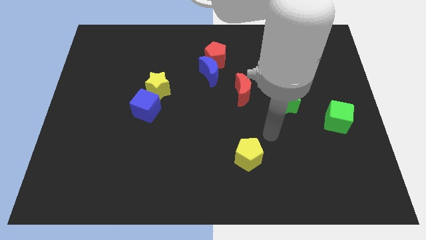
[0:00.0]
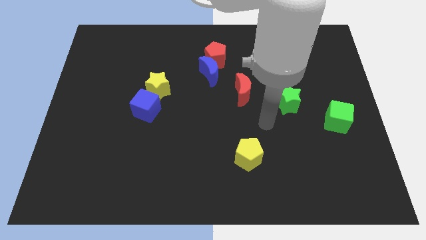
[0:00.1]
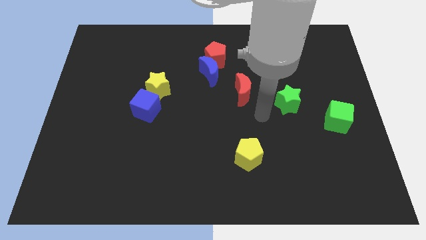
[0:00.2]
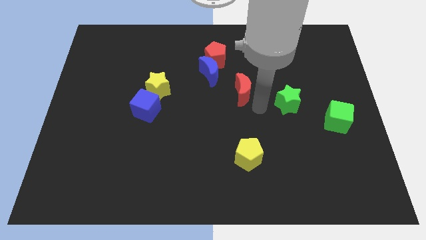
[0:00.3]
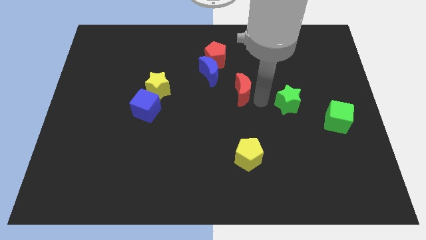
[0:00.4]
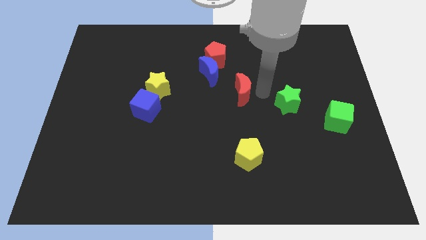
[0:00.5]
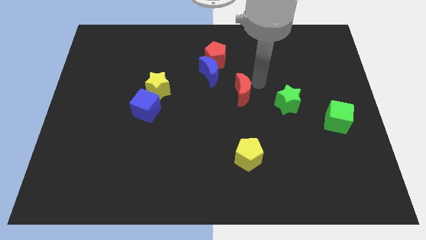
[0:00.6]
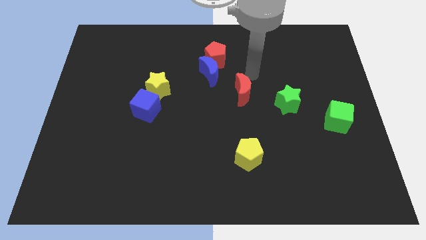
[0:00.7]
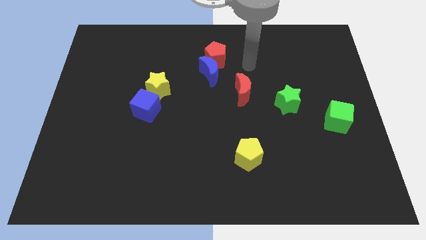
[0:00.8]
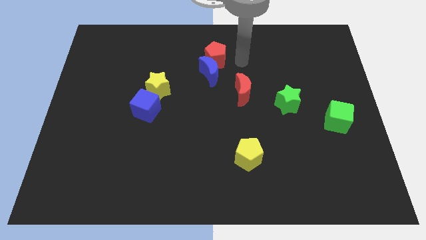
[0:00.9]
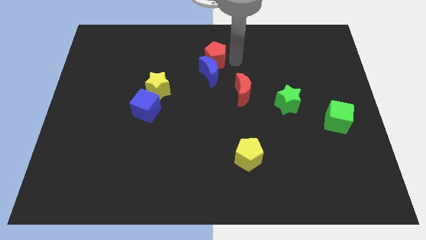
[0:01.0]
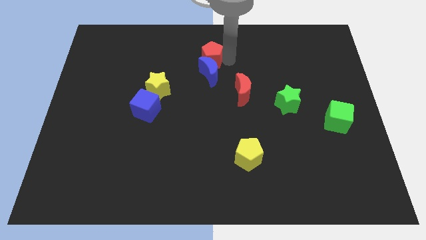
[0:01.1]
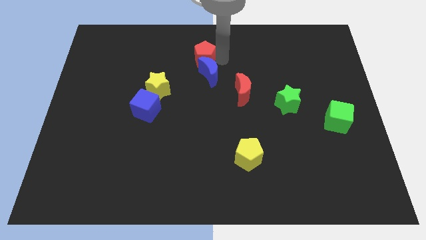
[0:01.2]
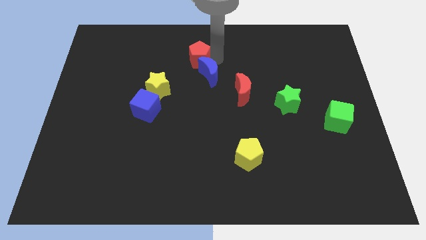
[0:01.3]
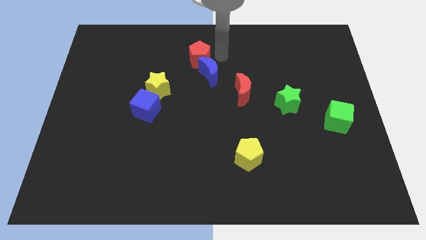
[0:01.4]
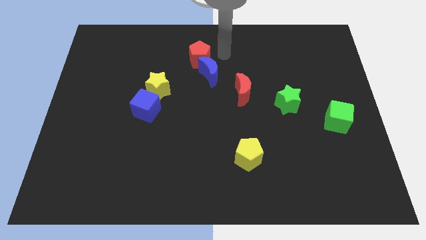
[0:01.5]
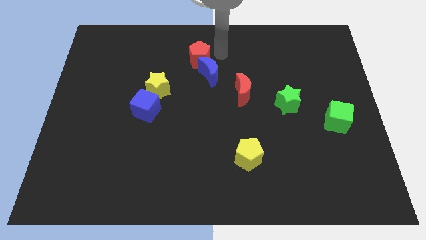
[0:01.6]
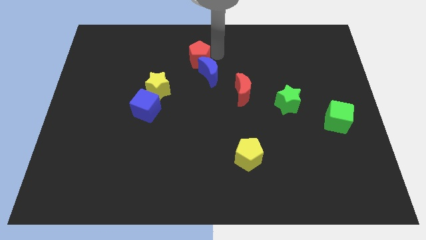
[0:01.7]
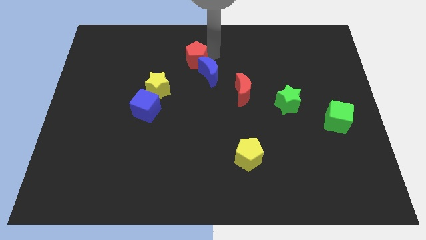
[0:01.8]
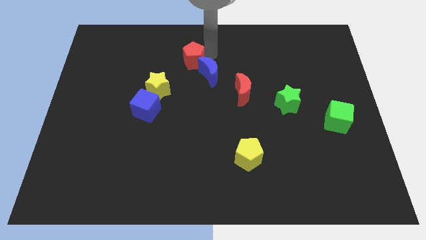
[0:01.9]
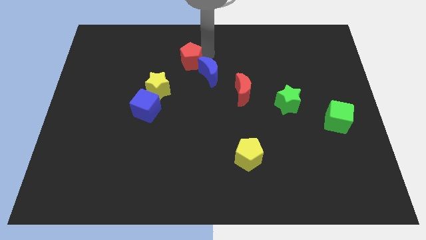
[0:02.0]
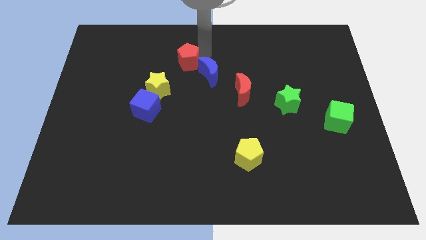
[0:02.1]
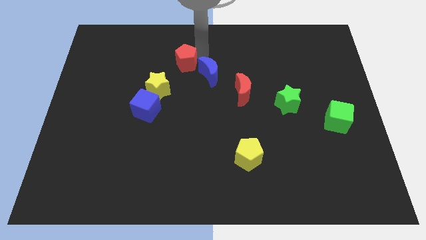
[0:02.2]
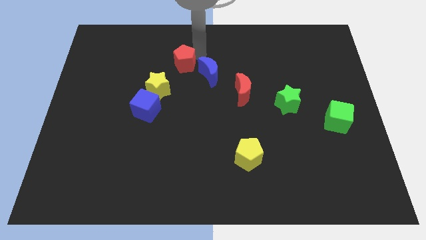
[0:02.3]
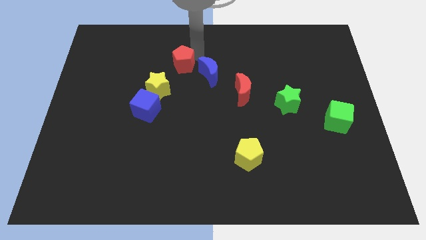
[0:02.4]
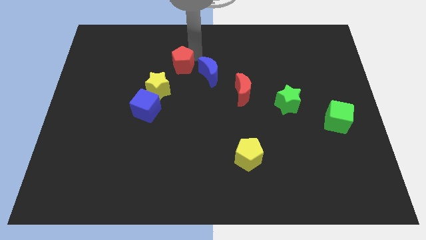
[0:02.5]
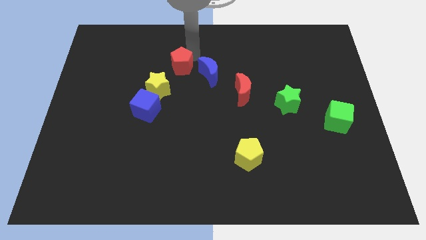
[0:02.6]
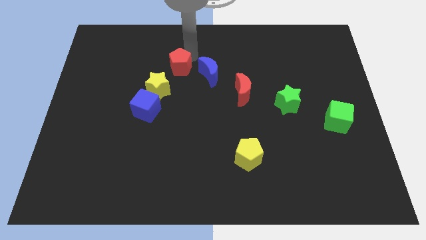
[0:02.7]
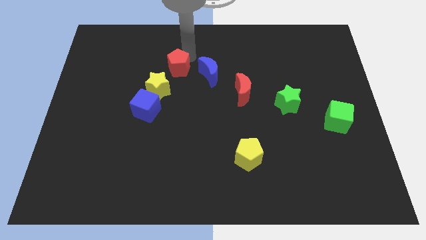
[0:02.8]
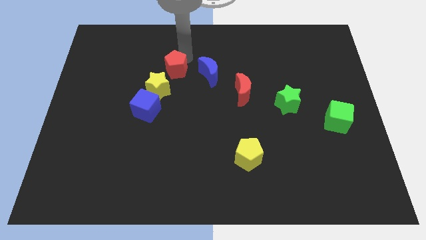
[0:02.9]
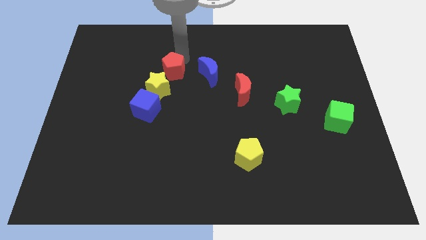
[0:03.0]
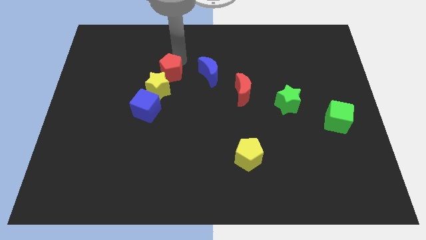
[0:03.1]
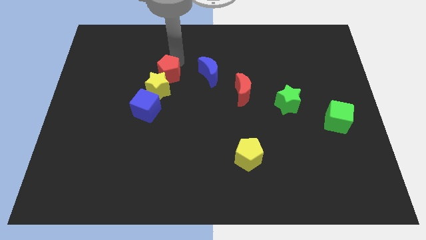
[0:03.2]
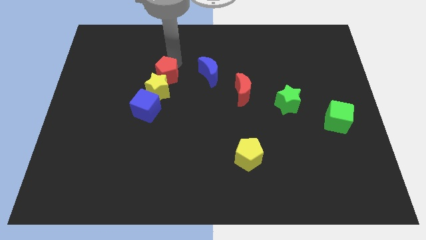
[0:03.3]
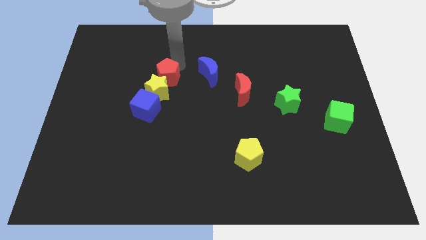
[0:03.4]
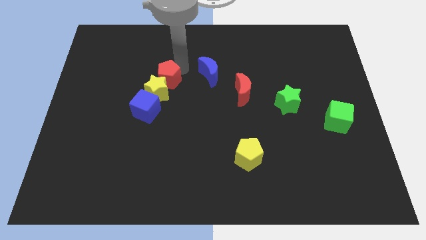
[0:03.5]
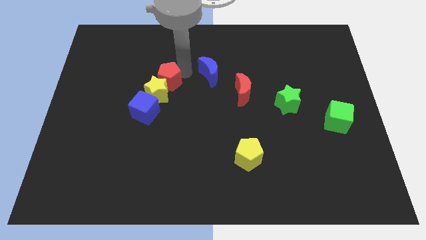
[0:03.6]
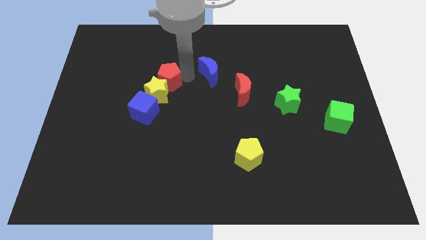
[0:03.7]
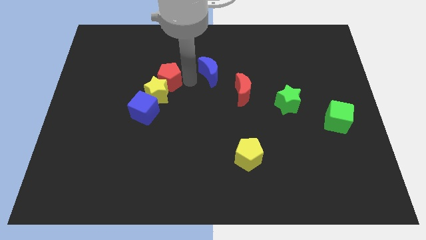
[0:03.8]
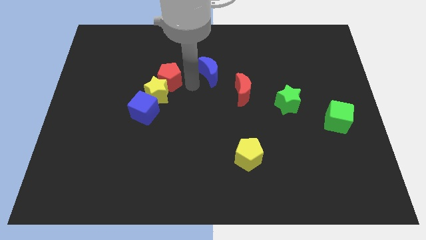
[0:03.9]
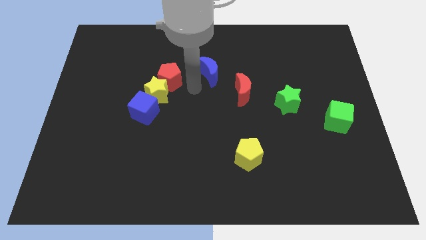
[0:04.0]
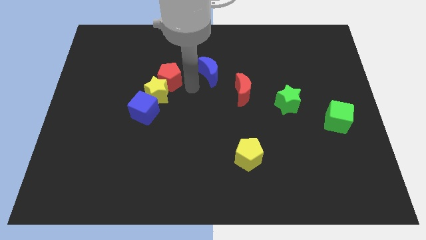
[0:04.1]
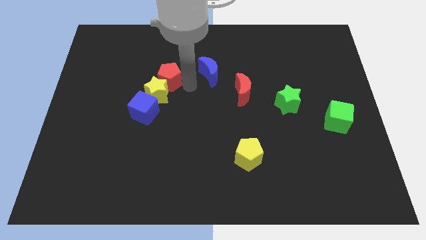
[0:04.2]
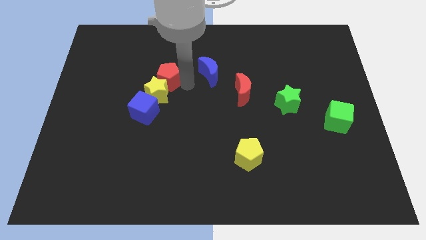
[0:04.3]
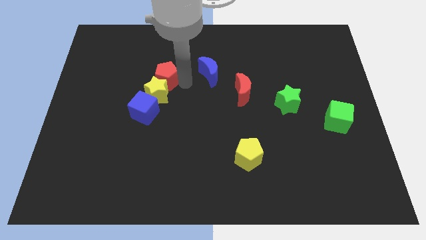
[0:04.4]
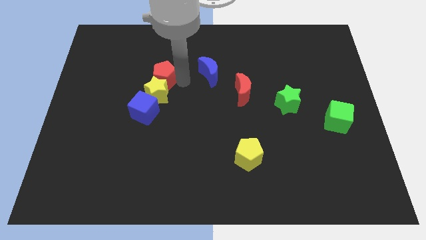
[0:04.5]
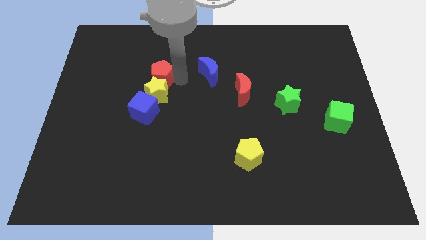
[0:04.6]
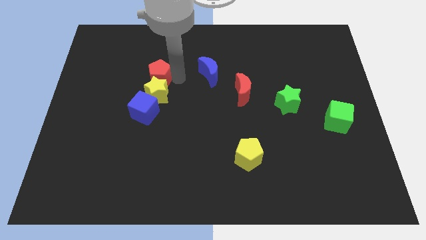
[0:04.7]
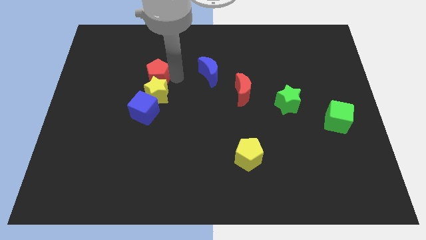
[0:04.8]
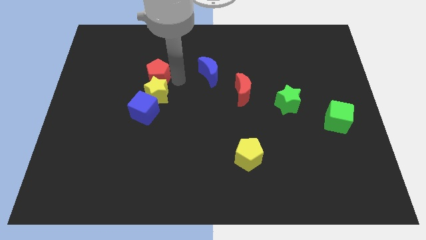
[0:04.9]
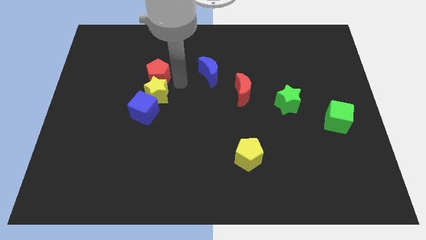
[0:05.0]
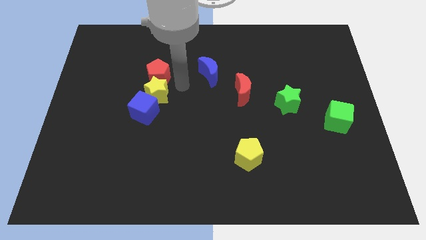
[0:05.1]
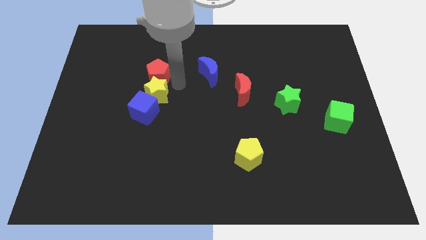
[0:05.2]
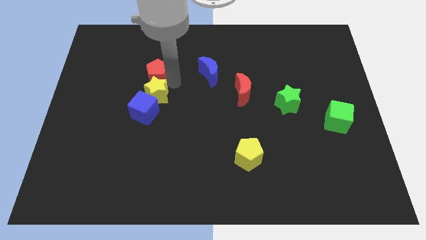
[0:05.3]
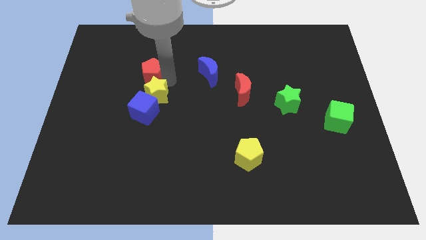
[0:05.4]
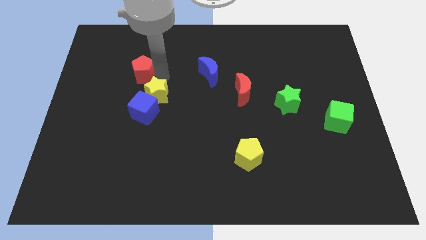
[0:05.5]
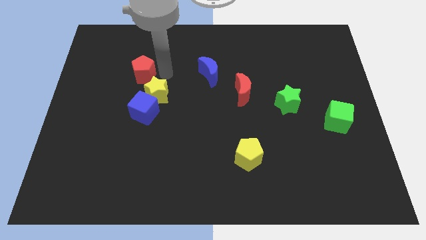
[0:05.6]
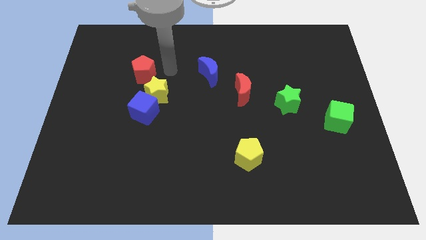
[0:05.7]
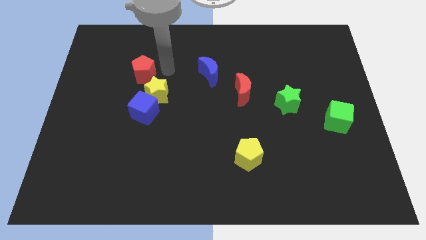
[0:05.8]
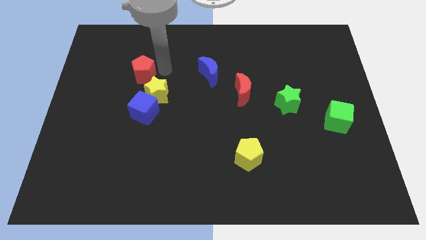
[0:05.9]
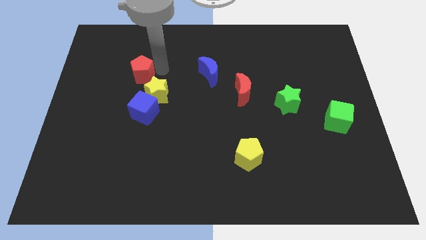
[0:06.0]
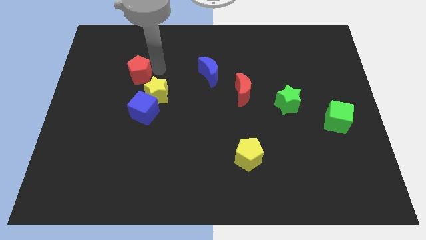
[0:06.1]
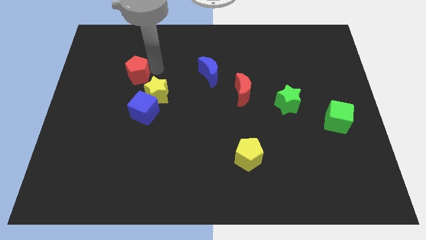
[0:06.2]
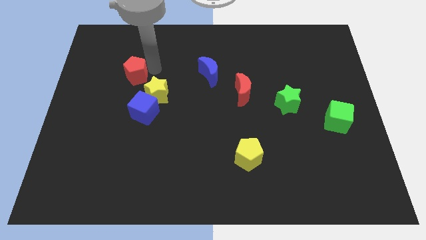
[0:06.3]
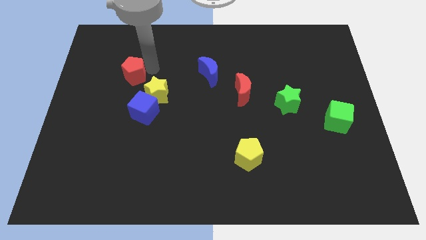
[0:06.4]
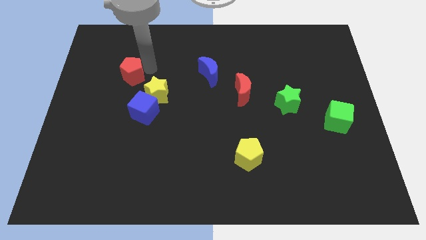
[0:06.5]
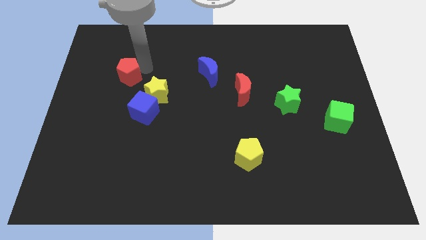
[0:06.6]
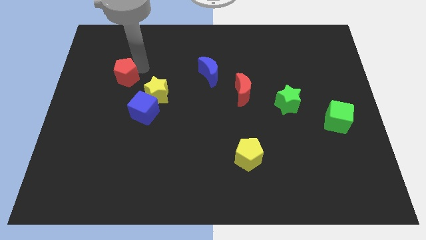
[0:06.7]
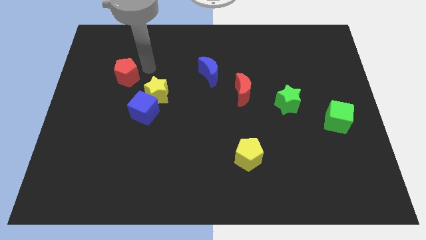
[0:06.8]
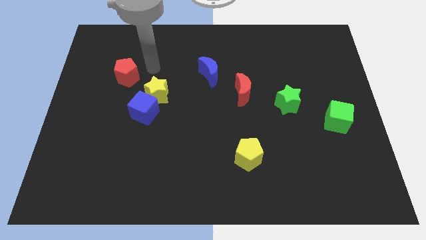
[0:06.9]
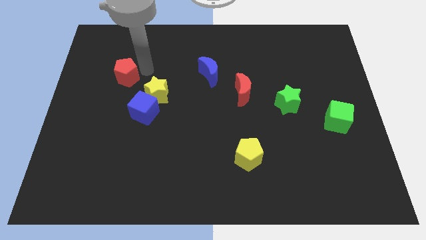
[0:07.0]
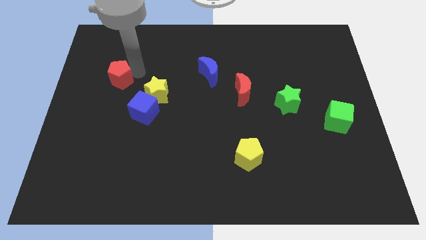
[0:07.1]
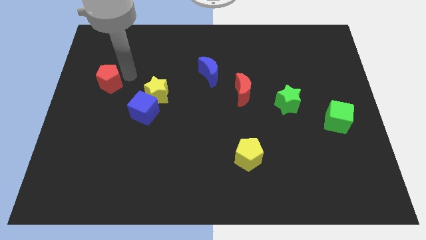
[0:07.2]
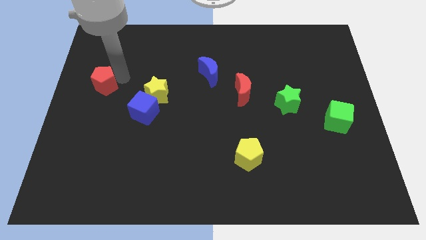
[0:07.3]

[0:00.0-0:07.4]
slide the red pentagon to the left side of the board

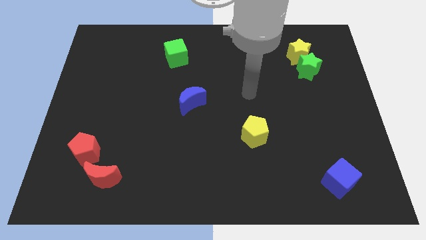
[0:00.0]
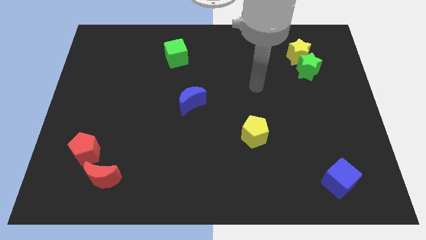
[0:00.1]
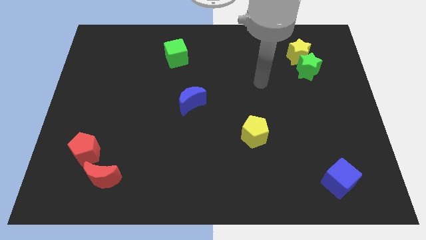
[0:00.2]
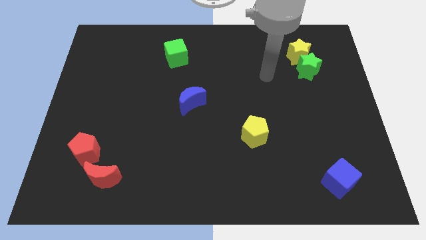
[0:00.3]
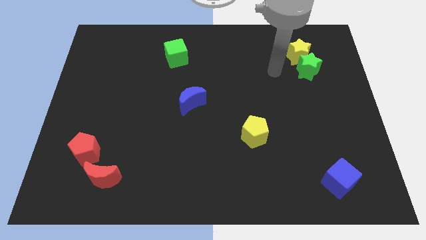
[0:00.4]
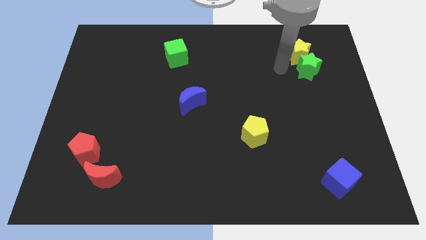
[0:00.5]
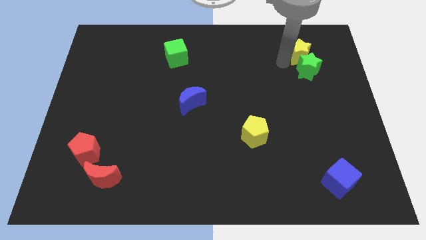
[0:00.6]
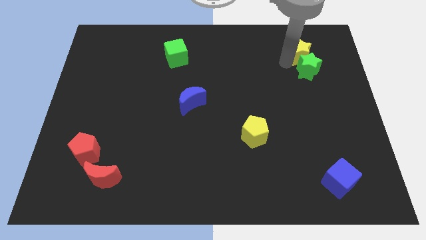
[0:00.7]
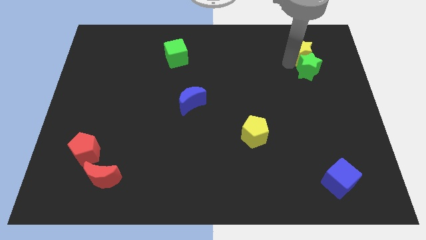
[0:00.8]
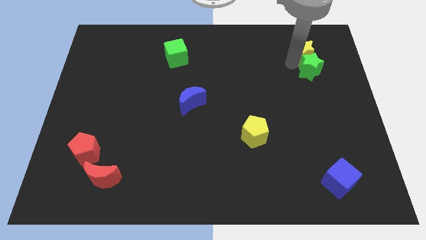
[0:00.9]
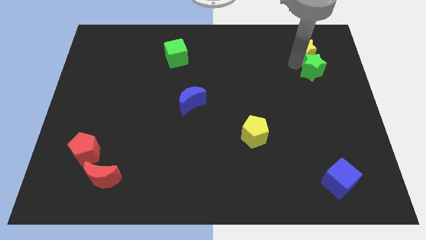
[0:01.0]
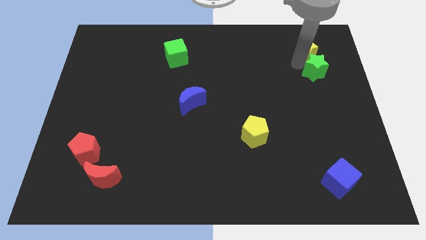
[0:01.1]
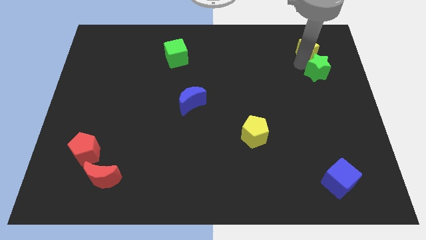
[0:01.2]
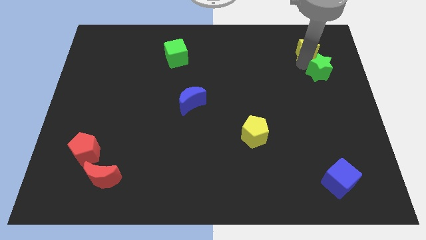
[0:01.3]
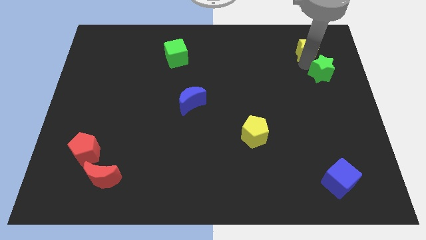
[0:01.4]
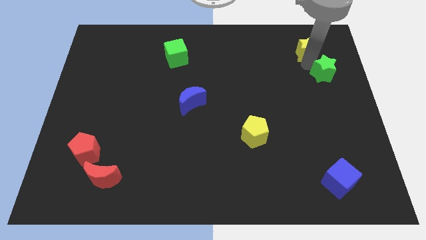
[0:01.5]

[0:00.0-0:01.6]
push the green star to the right side
